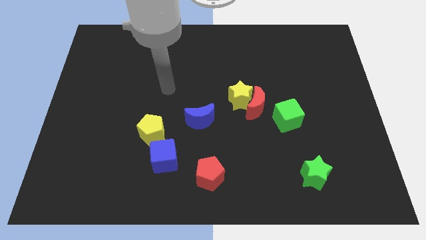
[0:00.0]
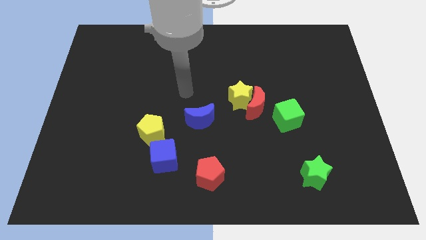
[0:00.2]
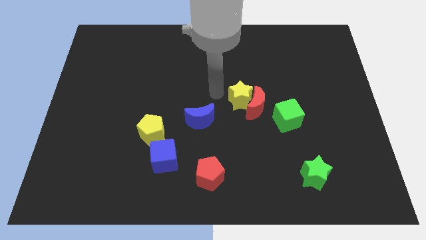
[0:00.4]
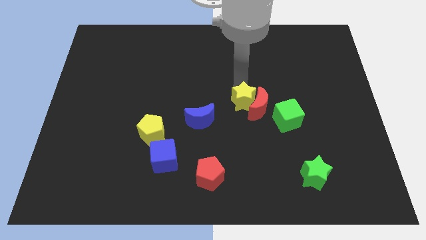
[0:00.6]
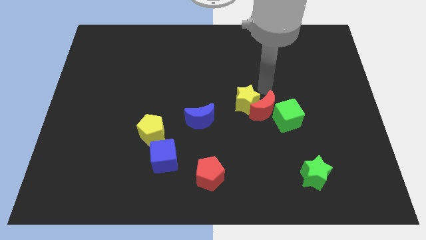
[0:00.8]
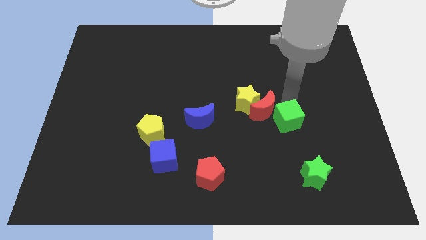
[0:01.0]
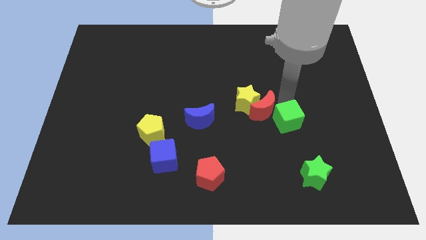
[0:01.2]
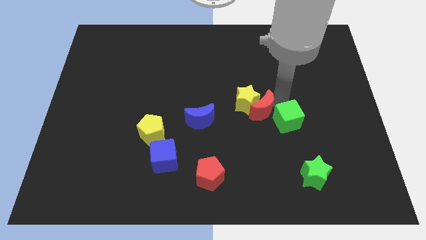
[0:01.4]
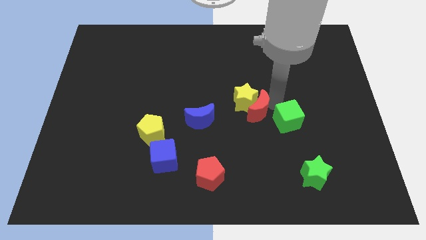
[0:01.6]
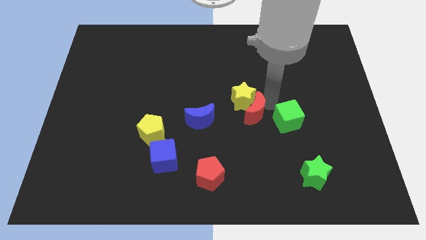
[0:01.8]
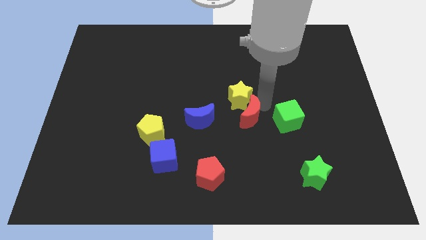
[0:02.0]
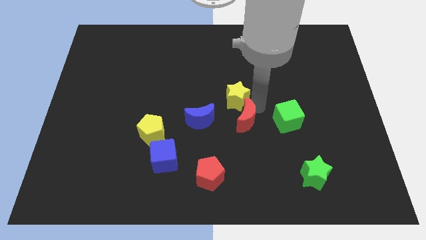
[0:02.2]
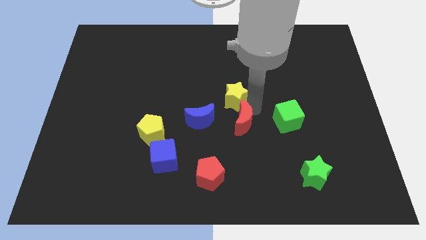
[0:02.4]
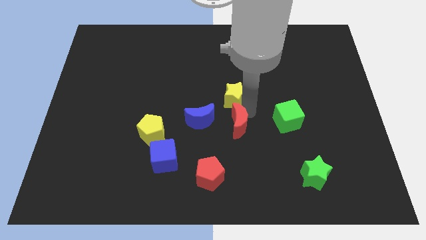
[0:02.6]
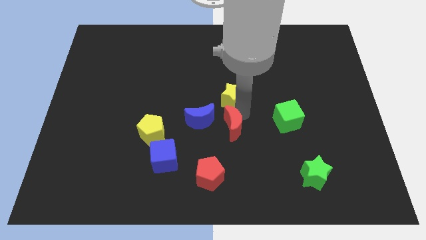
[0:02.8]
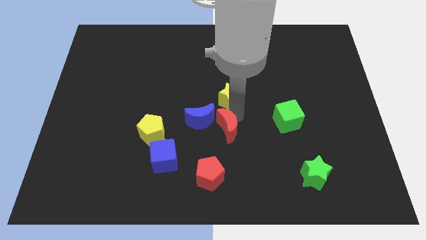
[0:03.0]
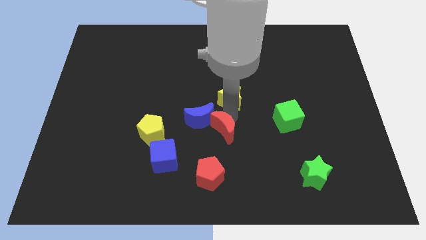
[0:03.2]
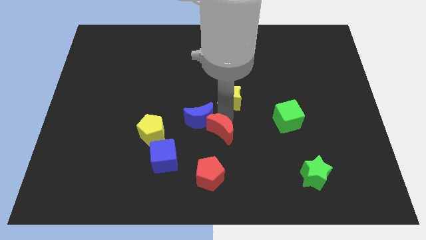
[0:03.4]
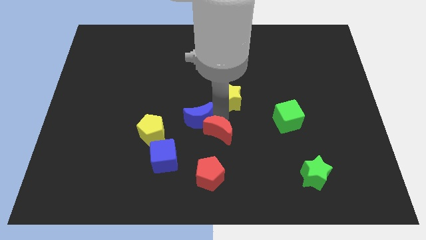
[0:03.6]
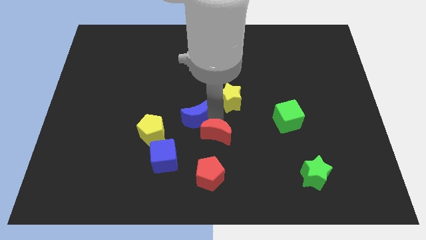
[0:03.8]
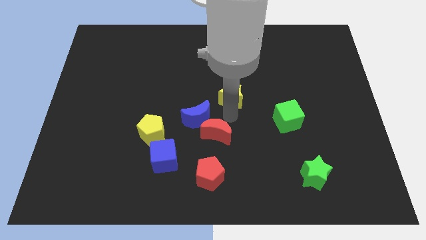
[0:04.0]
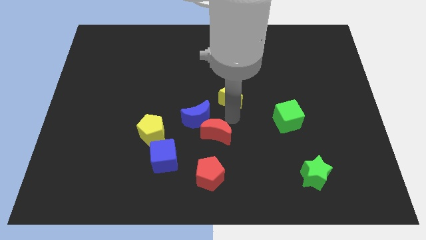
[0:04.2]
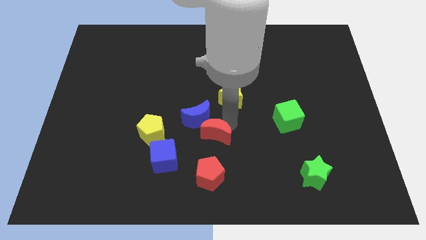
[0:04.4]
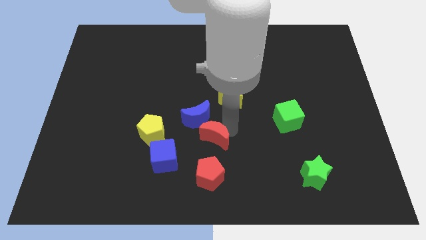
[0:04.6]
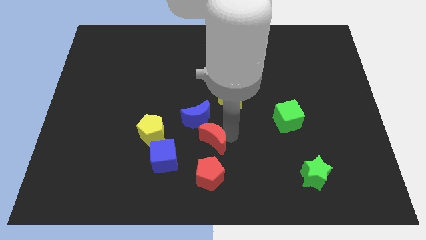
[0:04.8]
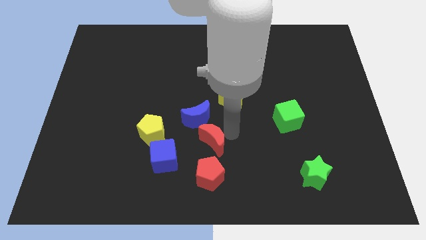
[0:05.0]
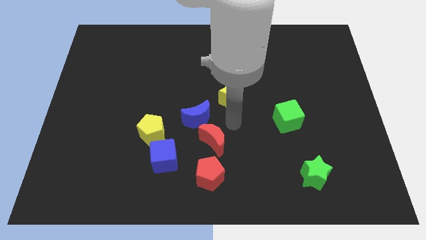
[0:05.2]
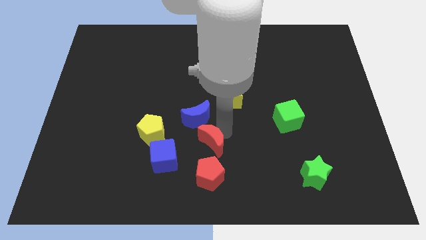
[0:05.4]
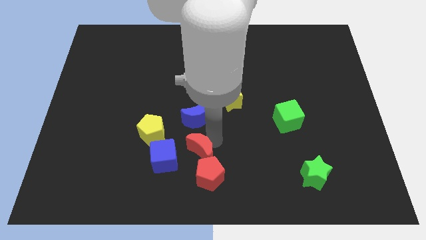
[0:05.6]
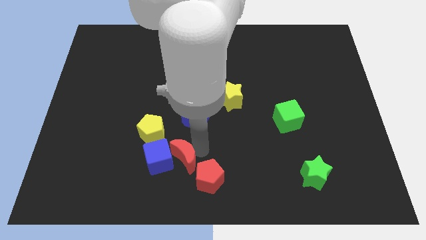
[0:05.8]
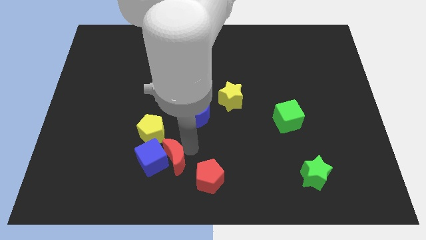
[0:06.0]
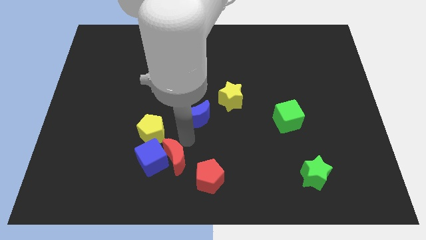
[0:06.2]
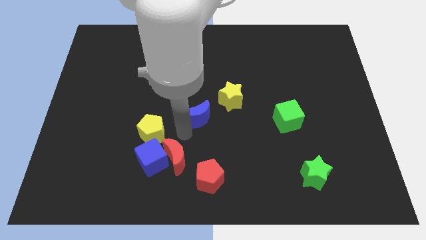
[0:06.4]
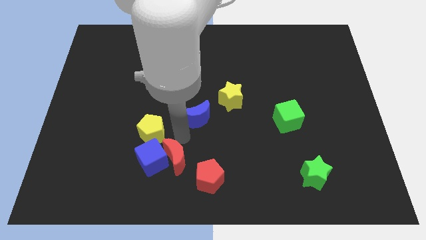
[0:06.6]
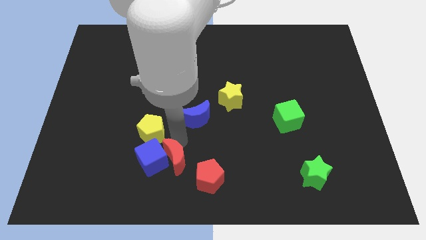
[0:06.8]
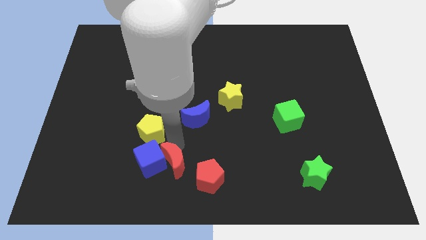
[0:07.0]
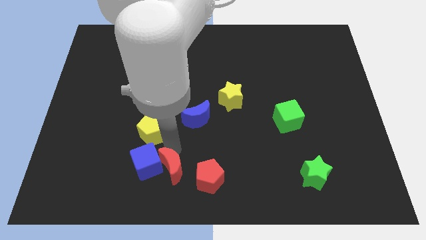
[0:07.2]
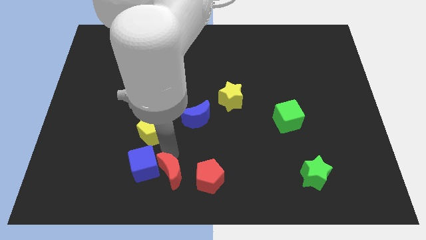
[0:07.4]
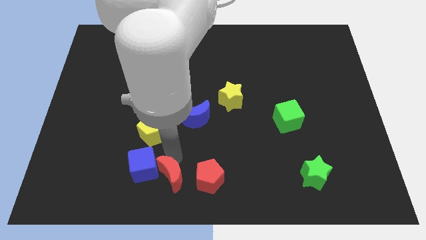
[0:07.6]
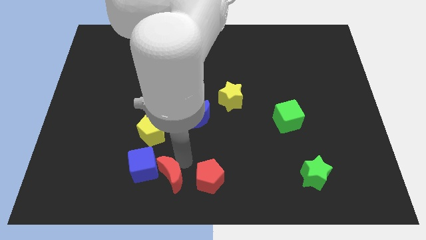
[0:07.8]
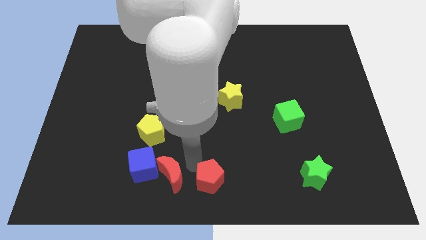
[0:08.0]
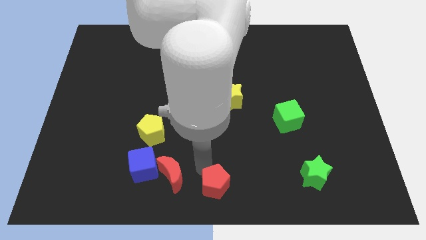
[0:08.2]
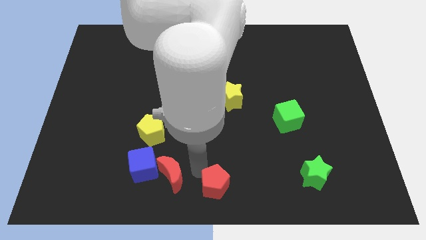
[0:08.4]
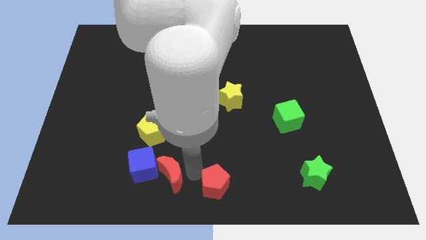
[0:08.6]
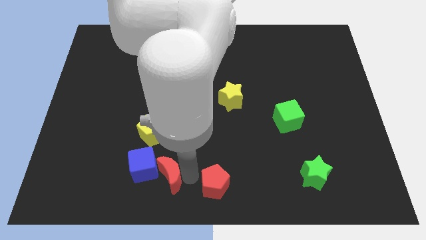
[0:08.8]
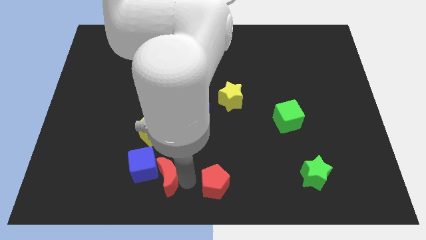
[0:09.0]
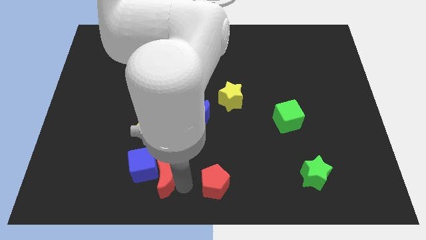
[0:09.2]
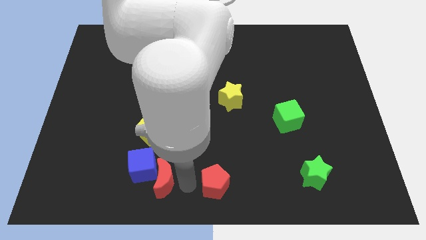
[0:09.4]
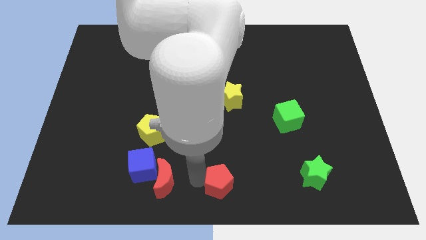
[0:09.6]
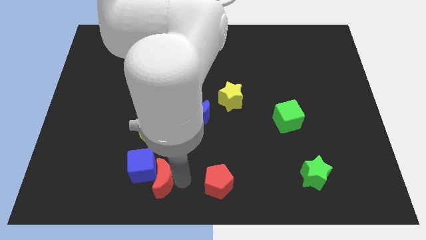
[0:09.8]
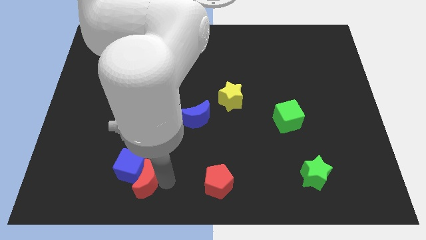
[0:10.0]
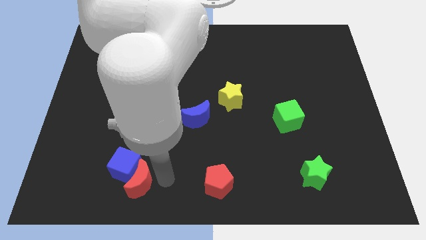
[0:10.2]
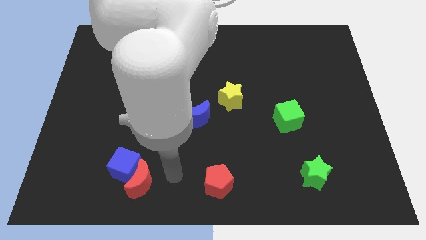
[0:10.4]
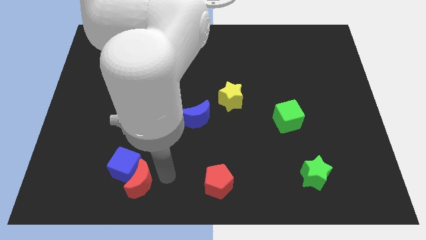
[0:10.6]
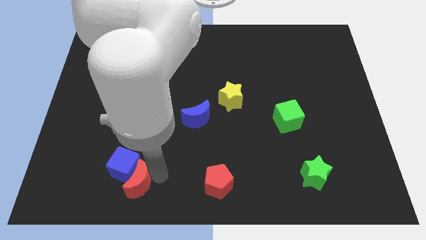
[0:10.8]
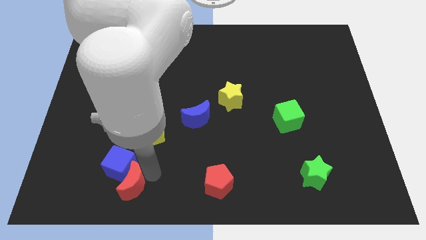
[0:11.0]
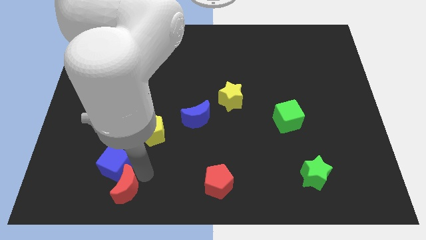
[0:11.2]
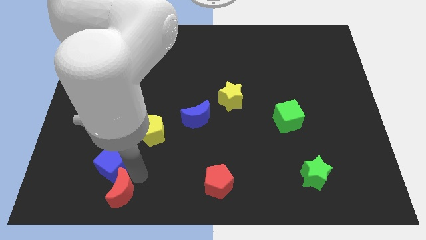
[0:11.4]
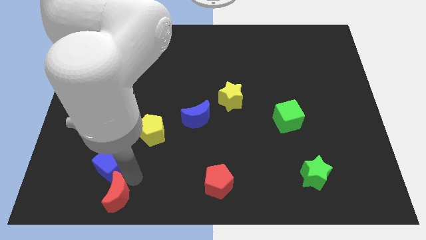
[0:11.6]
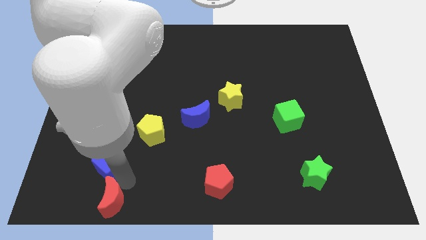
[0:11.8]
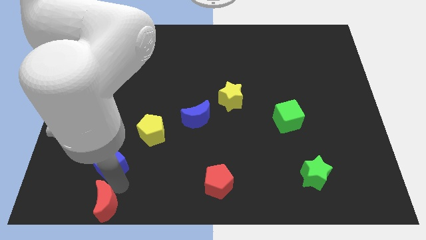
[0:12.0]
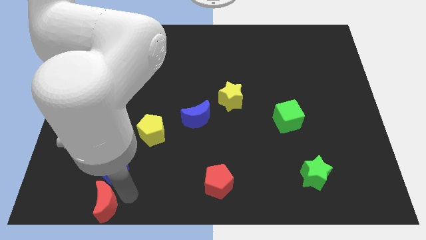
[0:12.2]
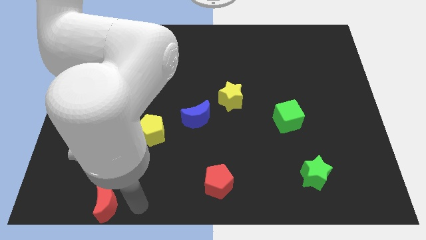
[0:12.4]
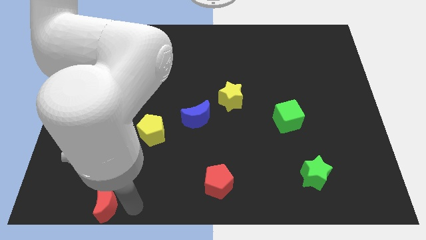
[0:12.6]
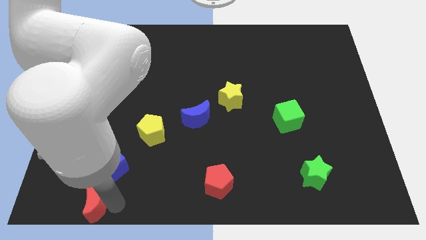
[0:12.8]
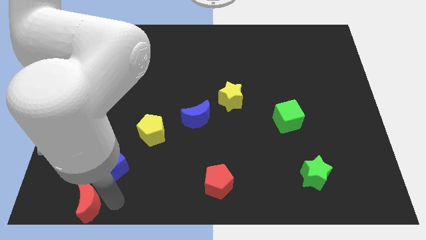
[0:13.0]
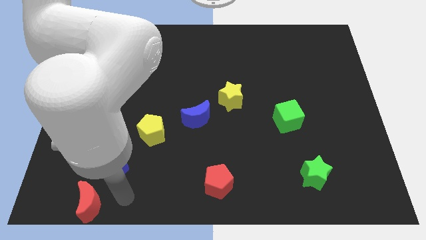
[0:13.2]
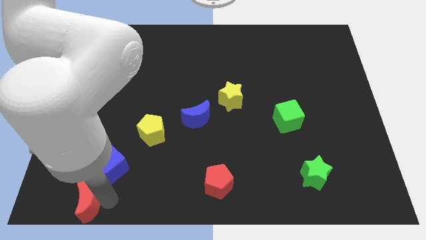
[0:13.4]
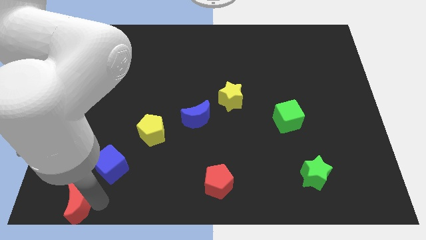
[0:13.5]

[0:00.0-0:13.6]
push the red moon to the bottom left
